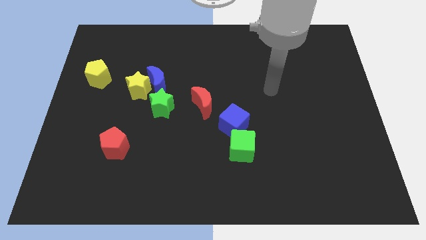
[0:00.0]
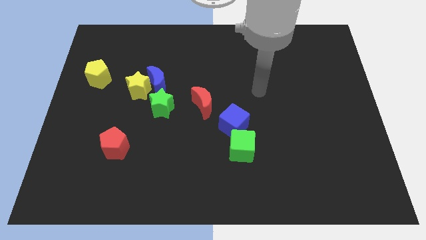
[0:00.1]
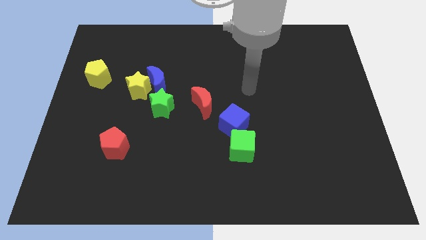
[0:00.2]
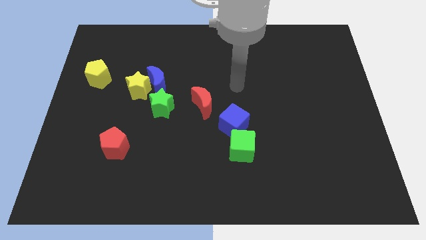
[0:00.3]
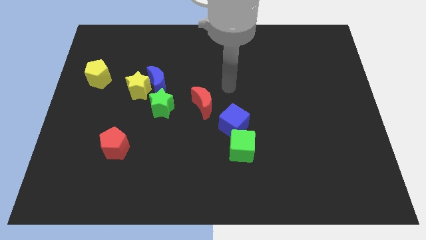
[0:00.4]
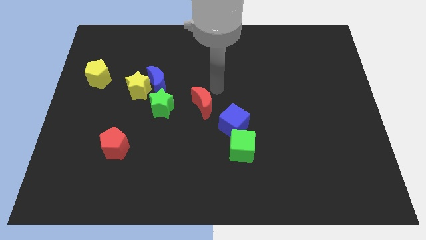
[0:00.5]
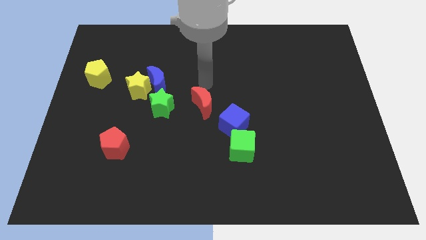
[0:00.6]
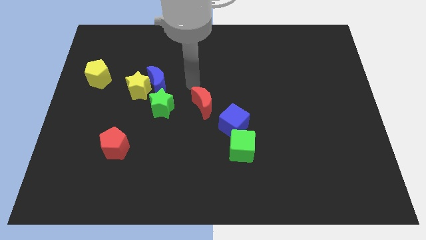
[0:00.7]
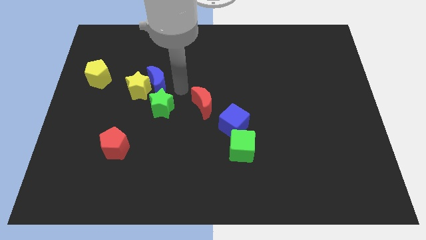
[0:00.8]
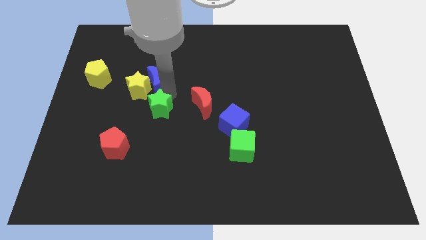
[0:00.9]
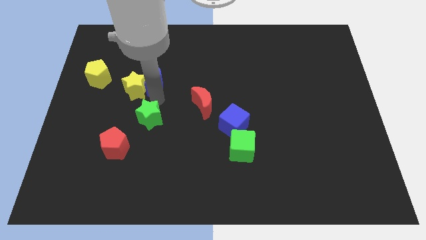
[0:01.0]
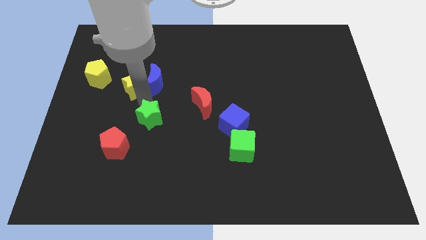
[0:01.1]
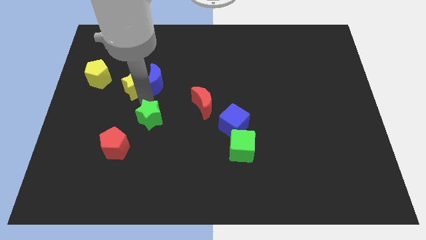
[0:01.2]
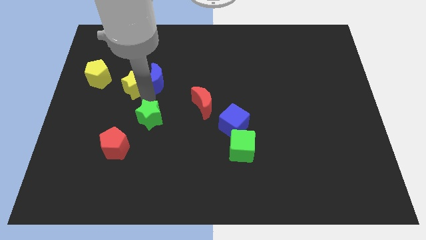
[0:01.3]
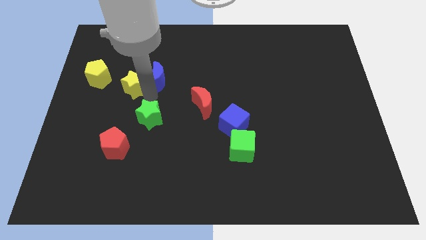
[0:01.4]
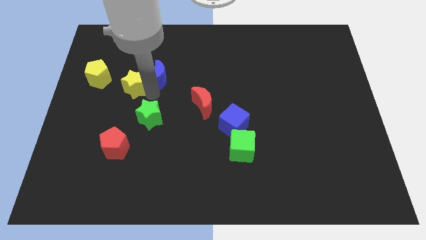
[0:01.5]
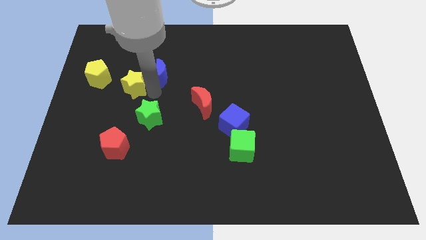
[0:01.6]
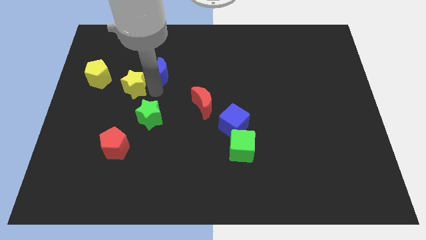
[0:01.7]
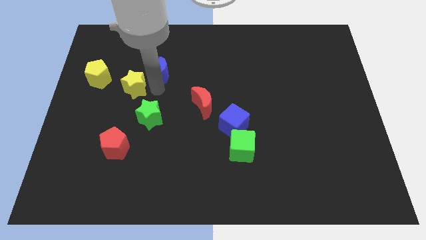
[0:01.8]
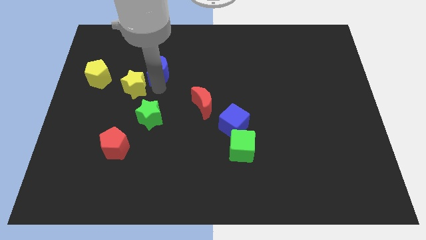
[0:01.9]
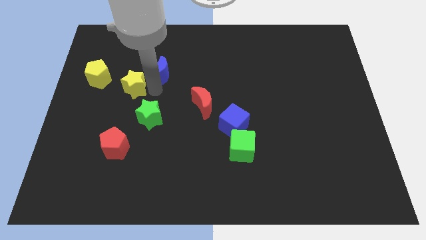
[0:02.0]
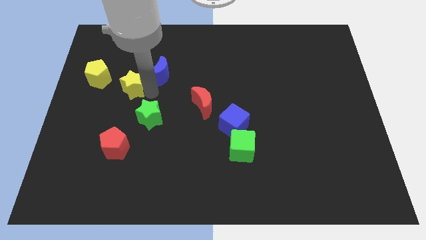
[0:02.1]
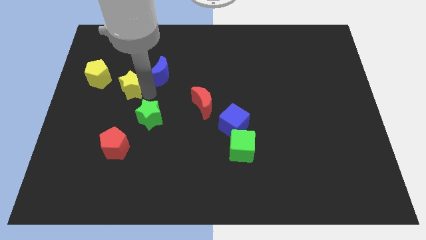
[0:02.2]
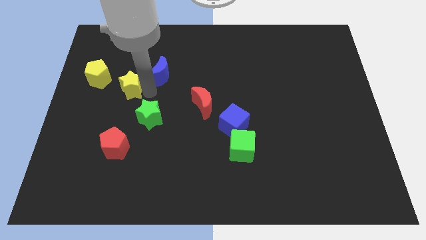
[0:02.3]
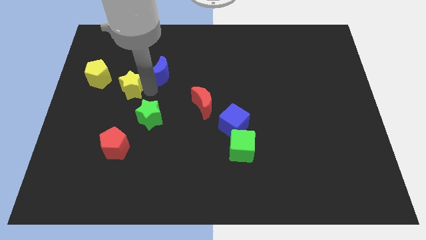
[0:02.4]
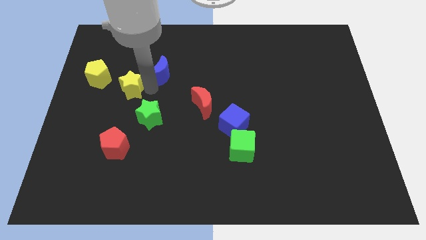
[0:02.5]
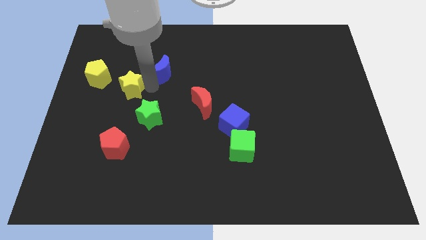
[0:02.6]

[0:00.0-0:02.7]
move the blue moon away from the yellow star and green star

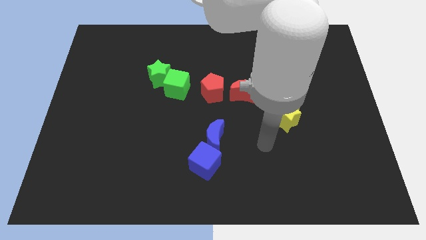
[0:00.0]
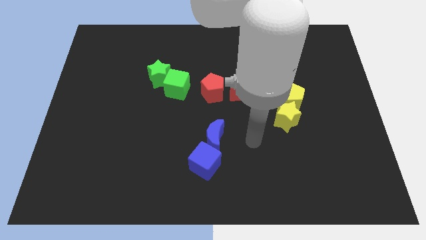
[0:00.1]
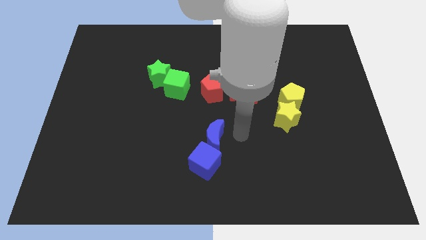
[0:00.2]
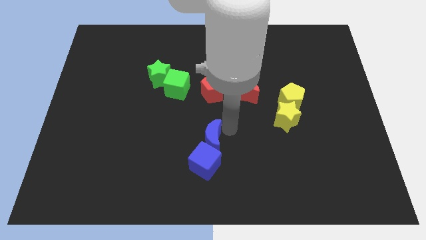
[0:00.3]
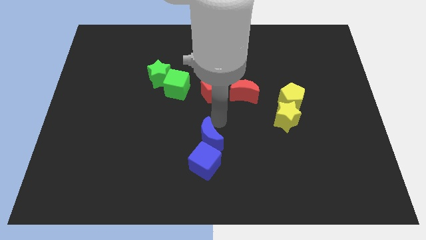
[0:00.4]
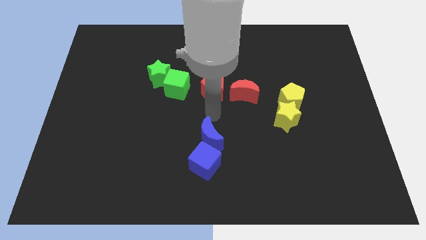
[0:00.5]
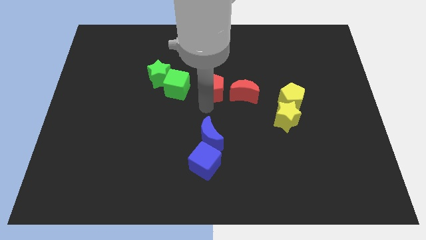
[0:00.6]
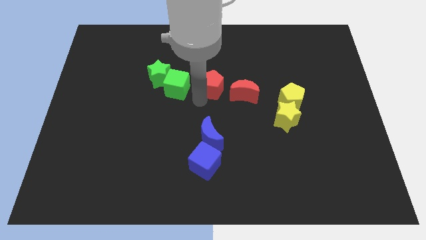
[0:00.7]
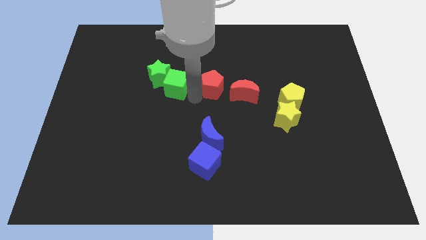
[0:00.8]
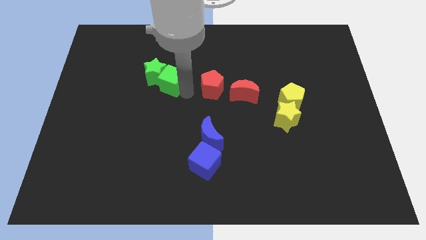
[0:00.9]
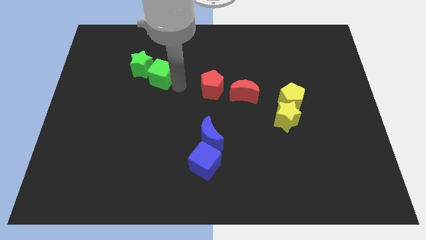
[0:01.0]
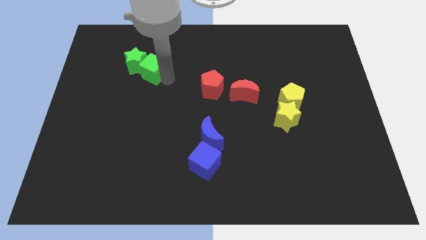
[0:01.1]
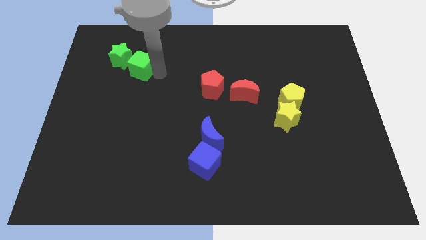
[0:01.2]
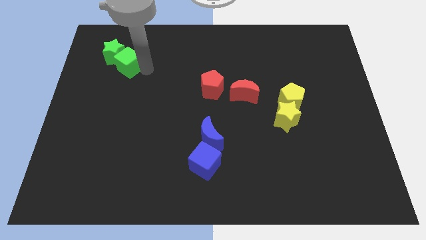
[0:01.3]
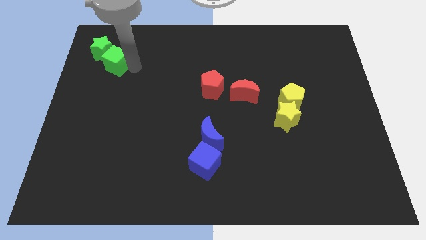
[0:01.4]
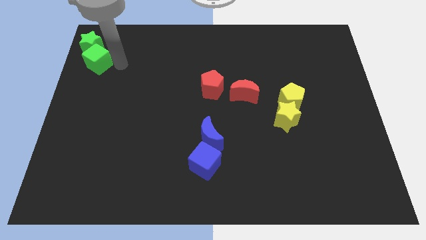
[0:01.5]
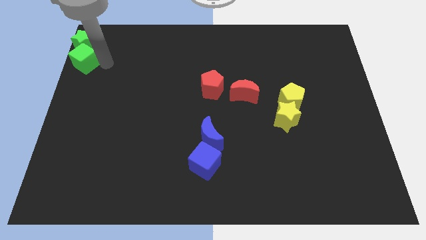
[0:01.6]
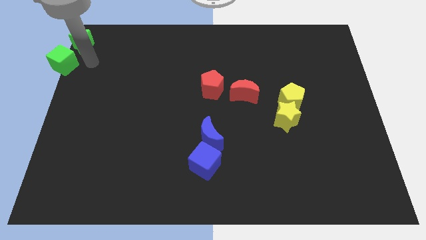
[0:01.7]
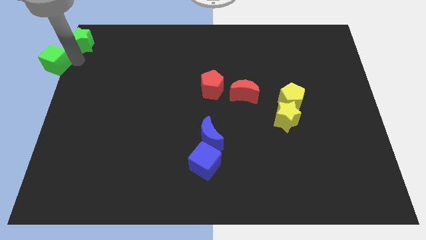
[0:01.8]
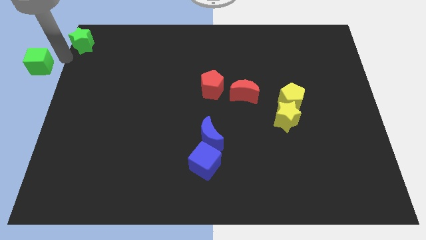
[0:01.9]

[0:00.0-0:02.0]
separate the green star from the green cube

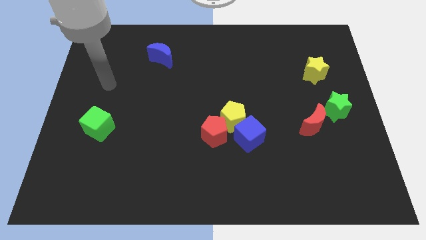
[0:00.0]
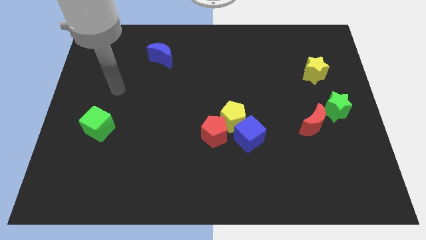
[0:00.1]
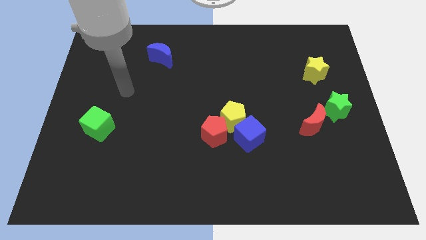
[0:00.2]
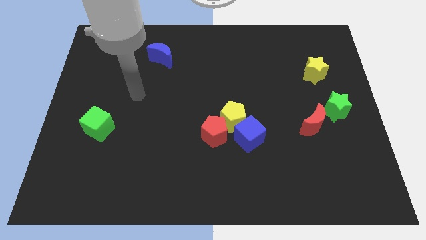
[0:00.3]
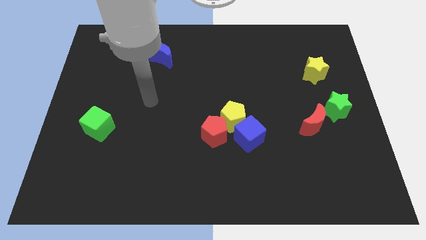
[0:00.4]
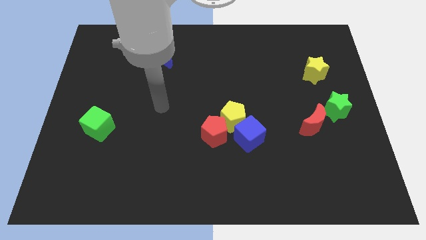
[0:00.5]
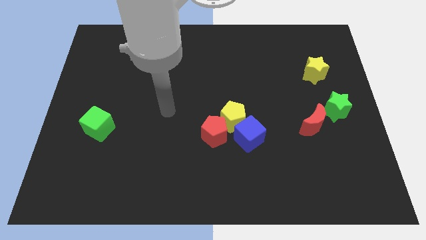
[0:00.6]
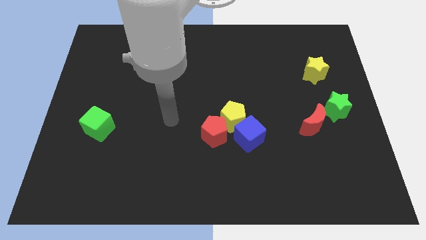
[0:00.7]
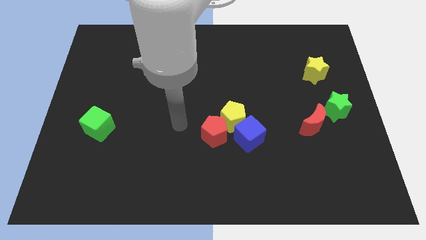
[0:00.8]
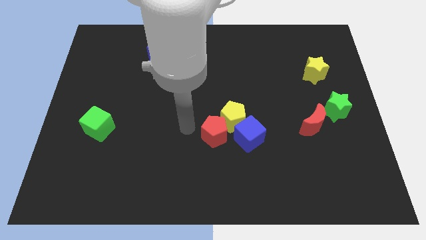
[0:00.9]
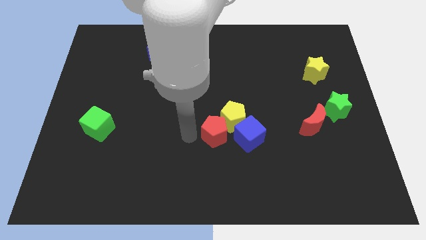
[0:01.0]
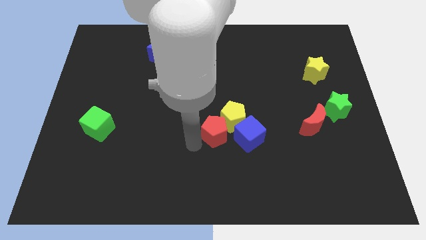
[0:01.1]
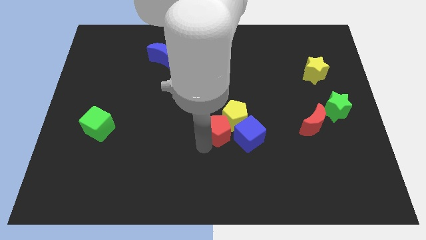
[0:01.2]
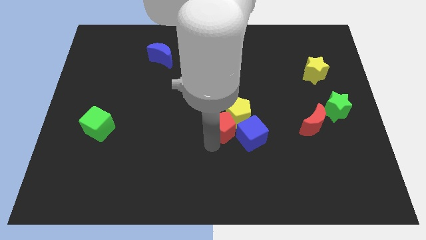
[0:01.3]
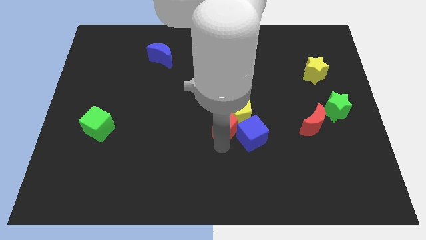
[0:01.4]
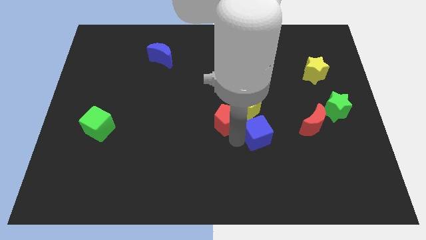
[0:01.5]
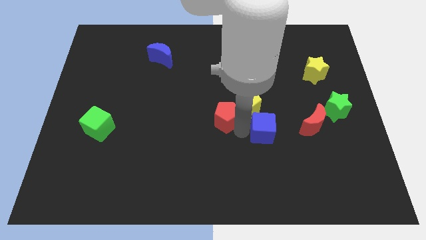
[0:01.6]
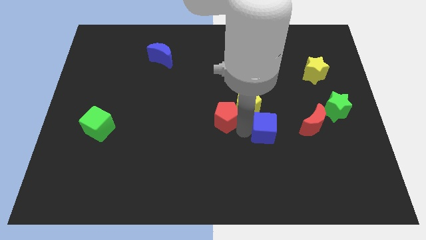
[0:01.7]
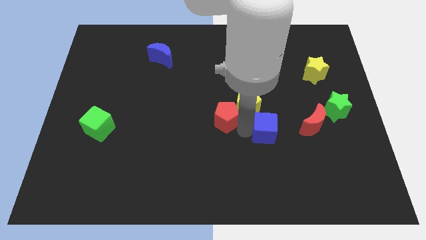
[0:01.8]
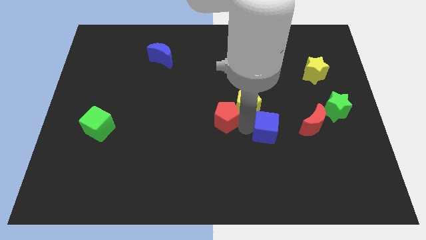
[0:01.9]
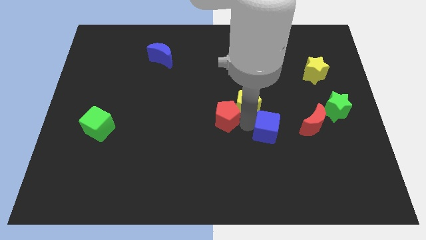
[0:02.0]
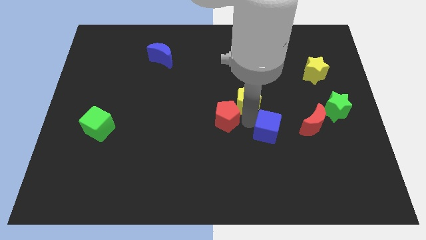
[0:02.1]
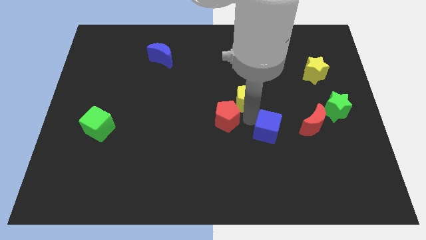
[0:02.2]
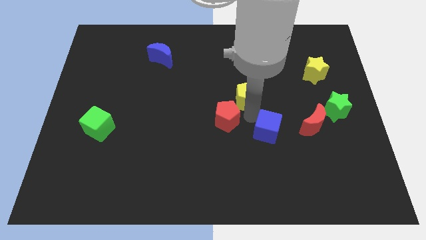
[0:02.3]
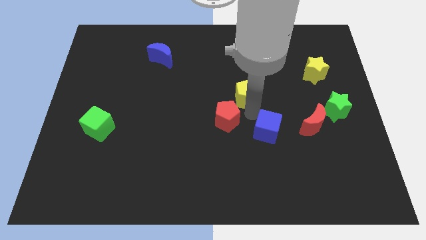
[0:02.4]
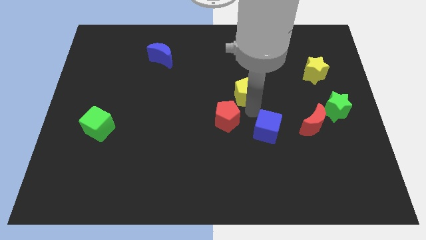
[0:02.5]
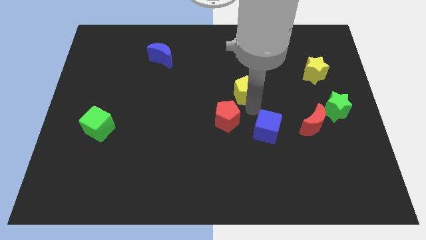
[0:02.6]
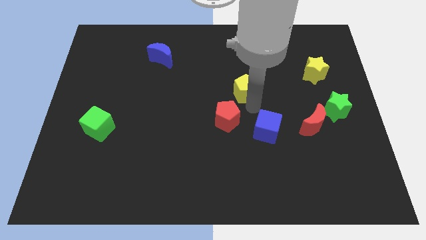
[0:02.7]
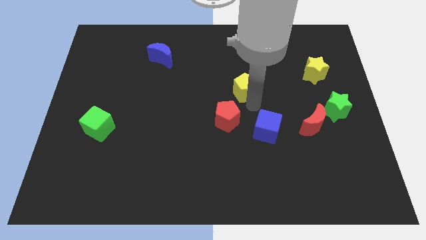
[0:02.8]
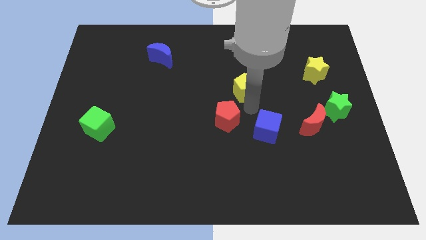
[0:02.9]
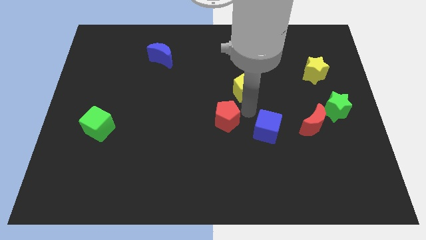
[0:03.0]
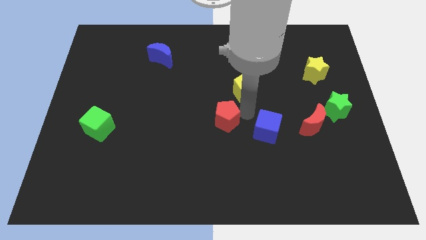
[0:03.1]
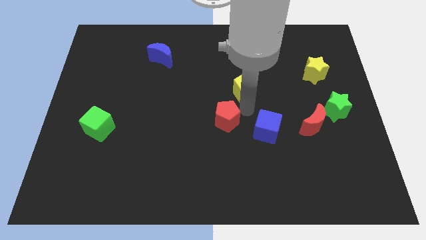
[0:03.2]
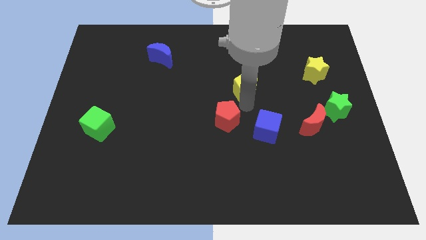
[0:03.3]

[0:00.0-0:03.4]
move the yellow pentagon away from the red pentagon and blue cube

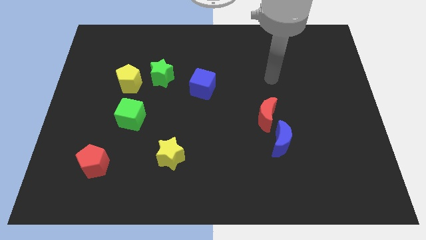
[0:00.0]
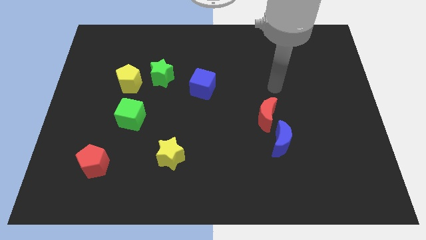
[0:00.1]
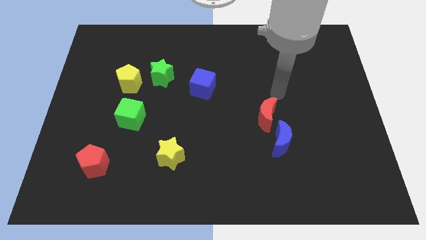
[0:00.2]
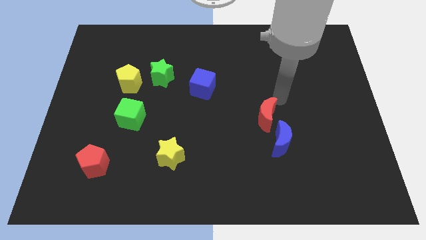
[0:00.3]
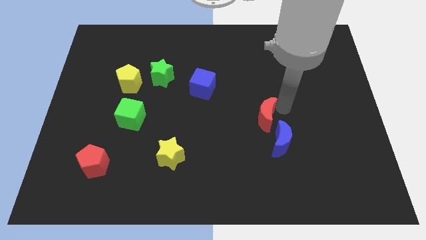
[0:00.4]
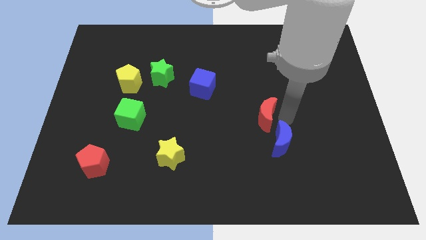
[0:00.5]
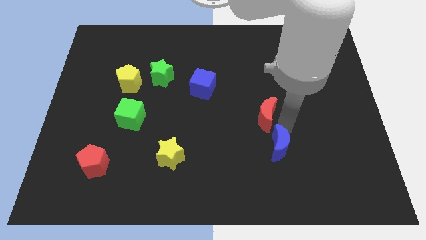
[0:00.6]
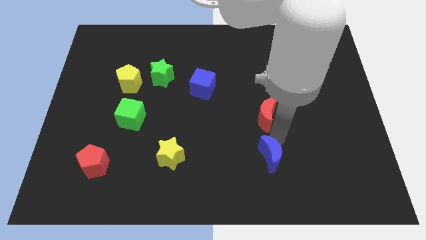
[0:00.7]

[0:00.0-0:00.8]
move the red moon away from the blue moon

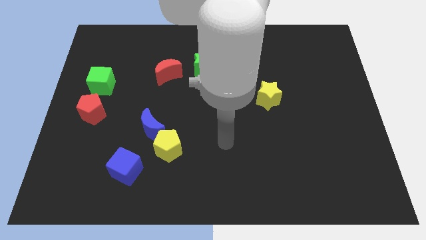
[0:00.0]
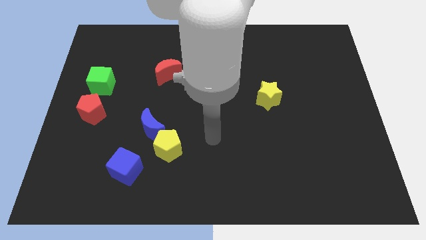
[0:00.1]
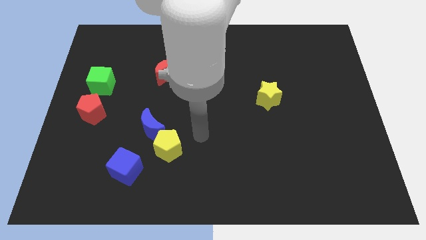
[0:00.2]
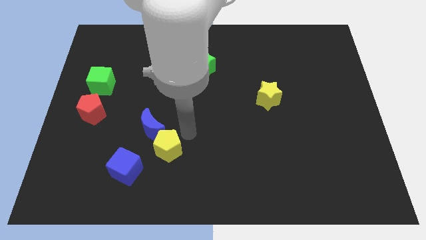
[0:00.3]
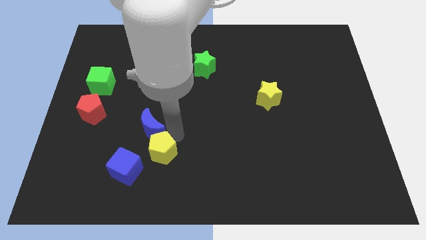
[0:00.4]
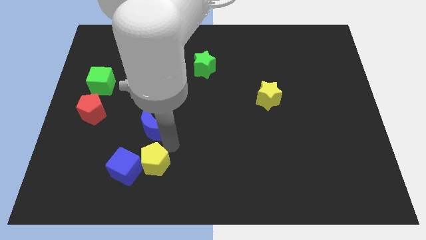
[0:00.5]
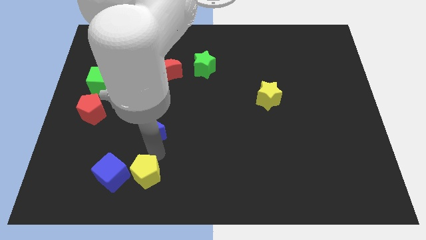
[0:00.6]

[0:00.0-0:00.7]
separate the blue moon from the yellow pentagon
